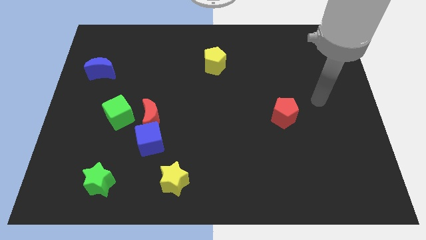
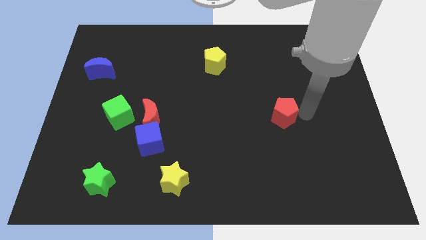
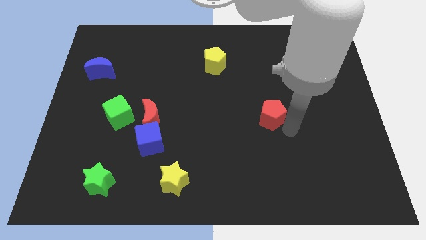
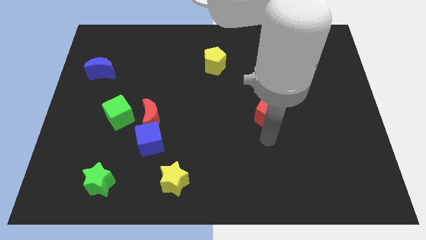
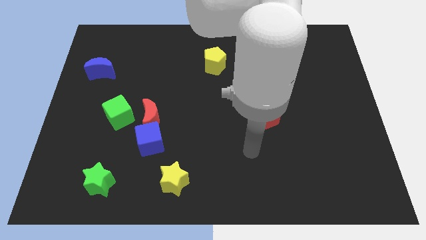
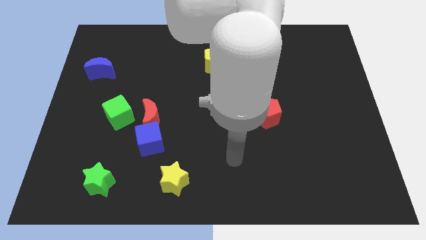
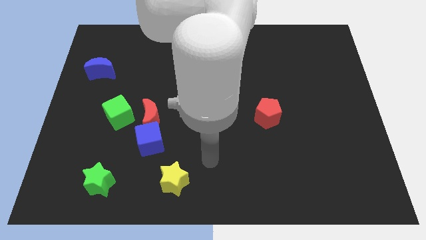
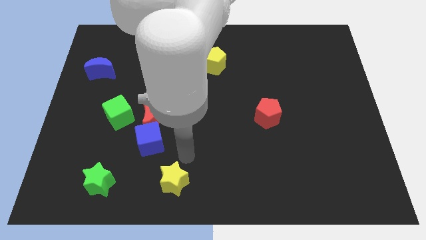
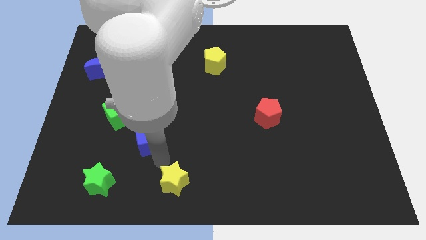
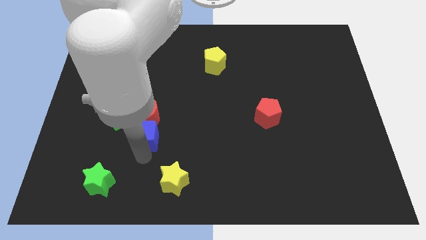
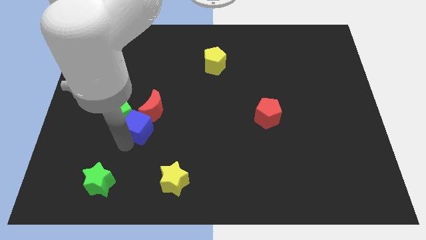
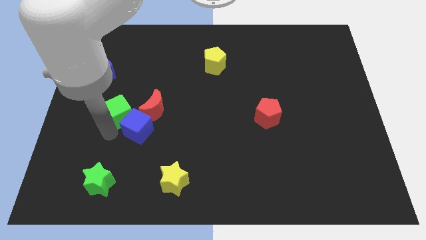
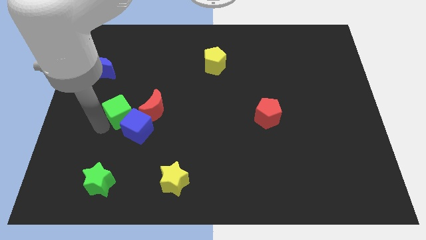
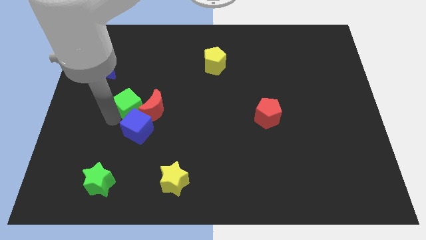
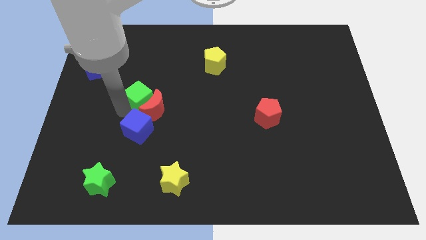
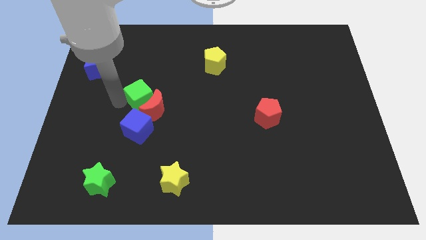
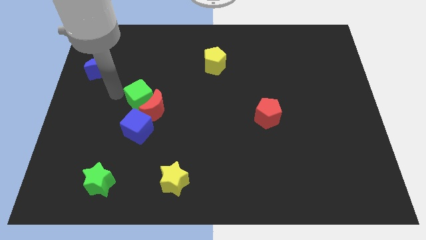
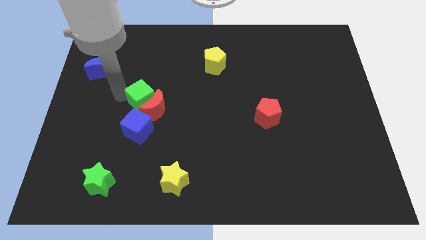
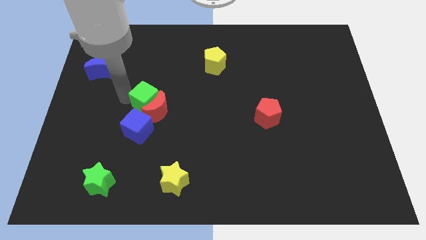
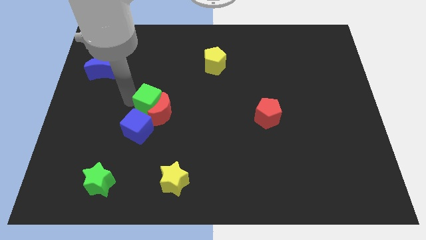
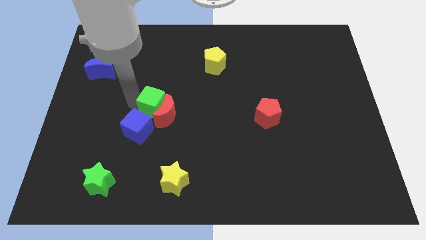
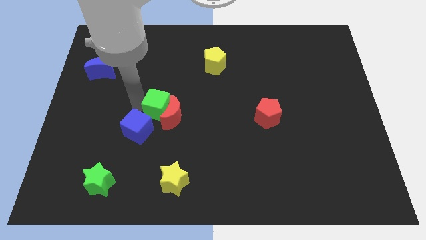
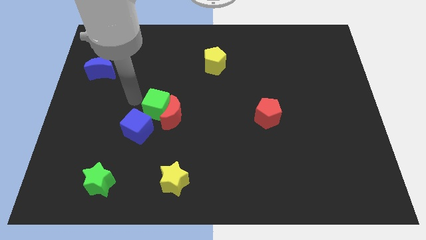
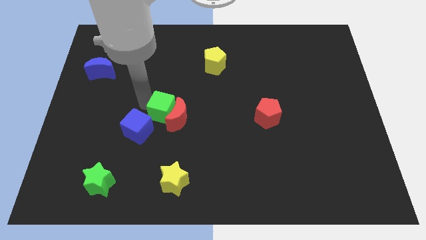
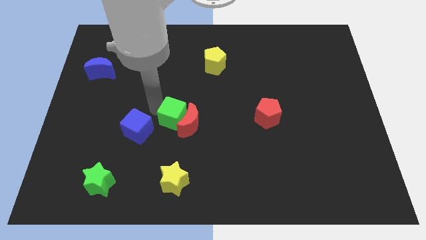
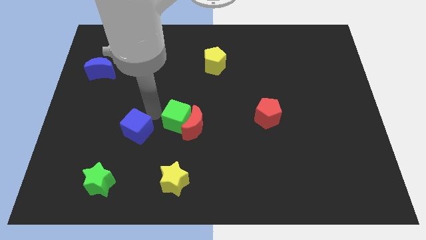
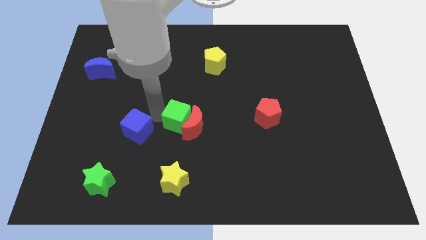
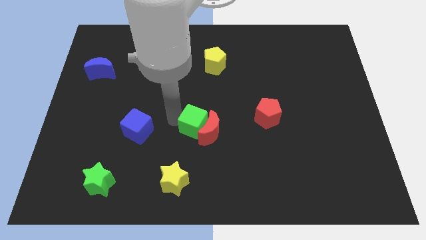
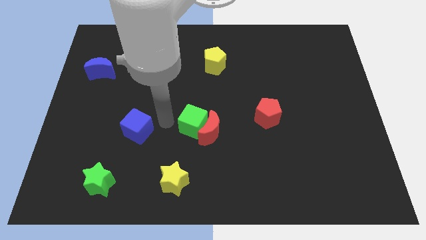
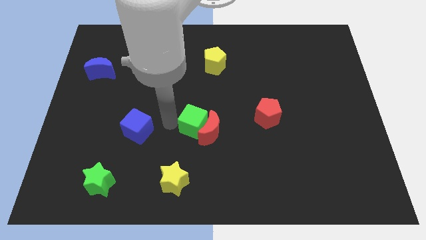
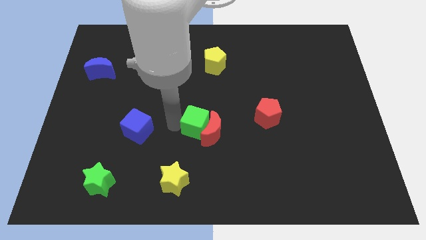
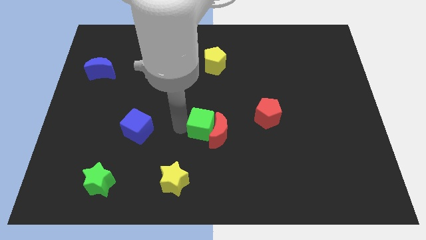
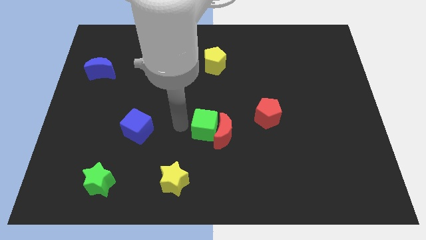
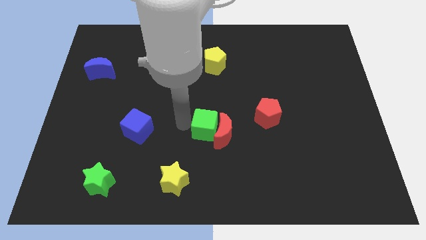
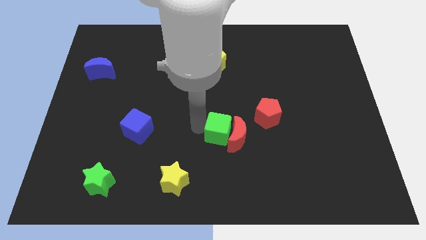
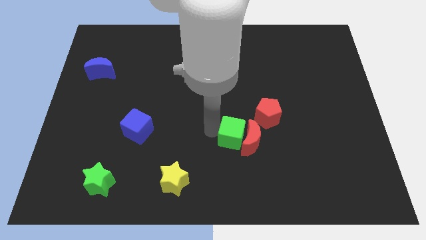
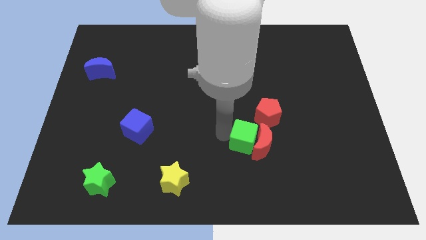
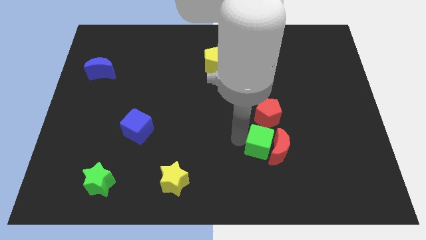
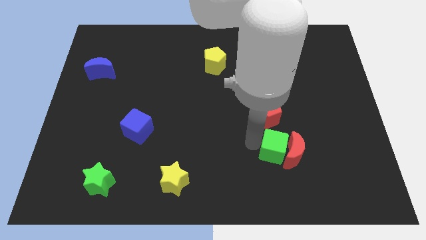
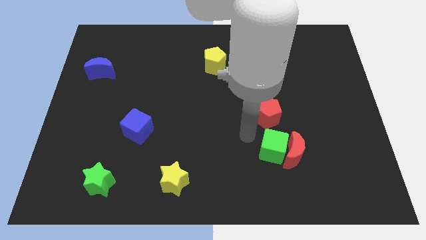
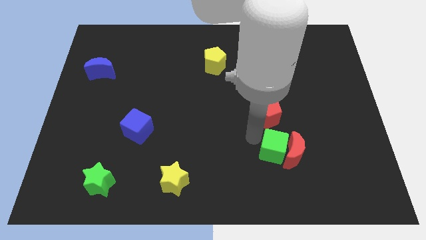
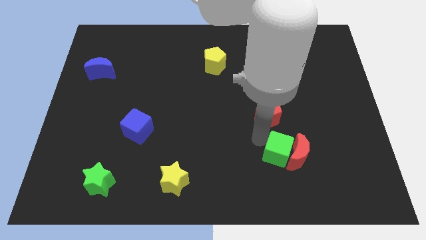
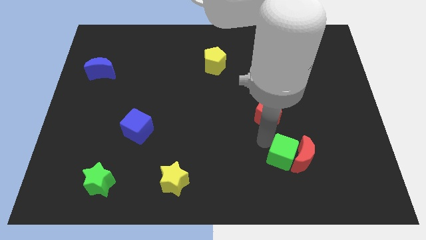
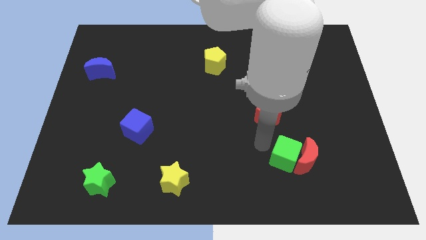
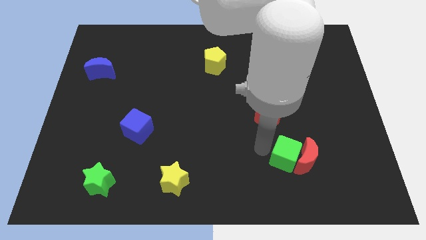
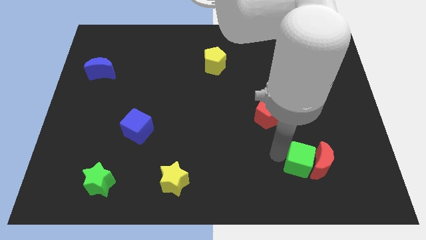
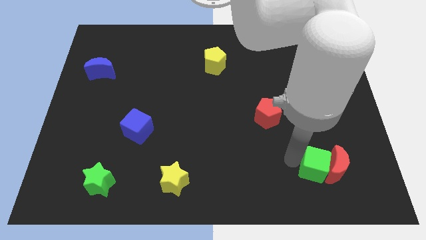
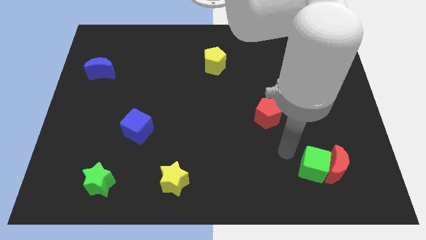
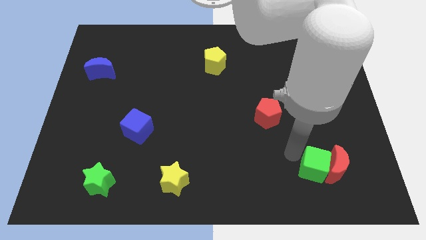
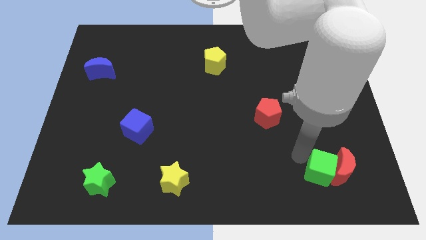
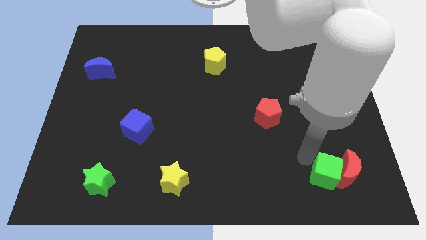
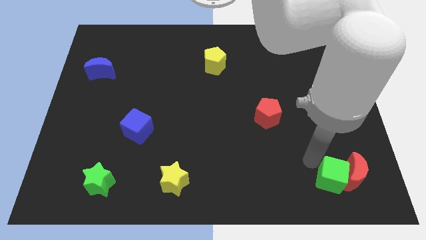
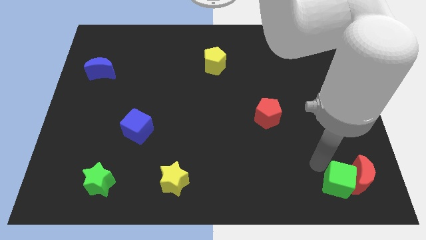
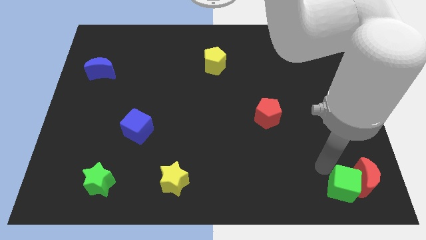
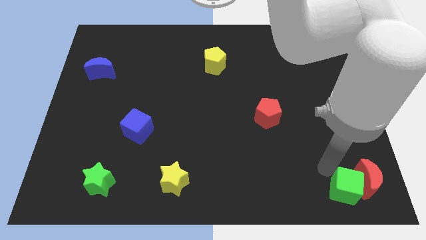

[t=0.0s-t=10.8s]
push the green cube to the lower right corner
